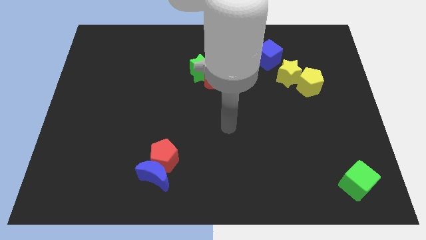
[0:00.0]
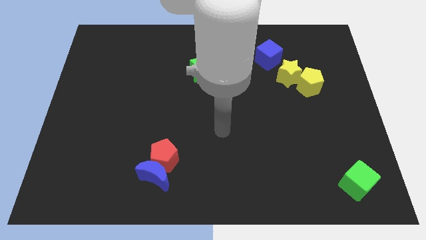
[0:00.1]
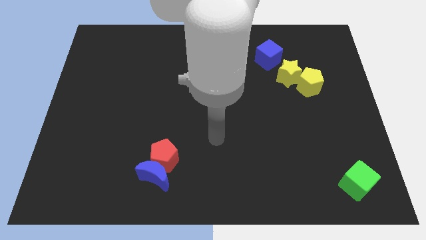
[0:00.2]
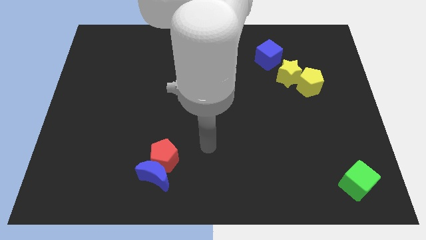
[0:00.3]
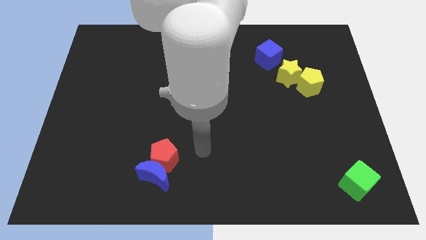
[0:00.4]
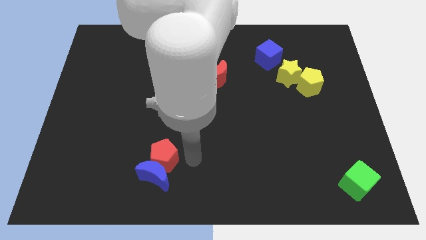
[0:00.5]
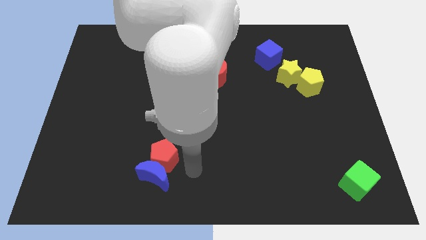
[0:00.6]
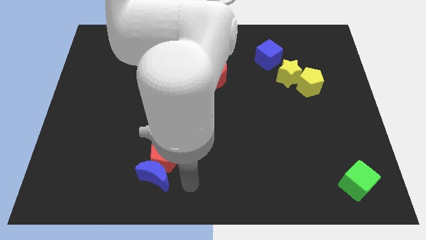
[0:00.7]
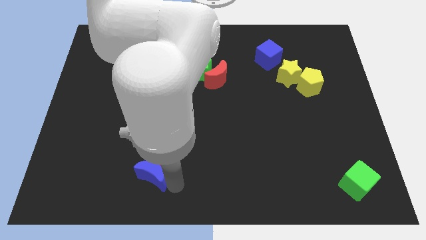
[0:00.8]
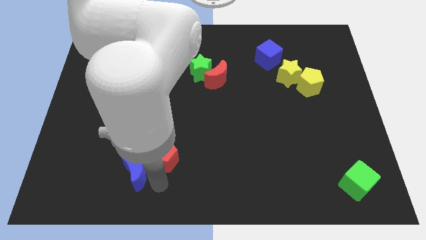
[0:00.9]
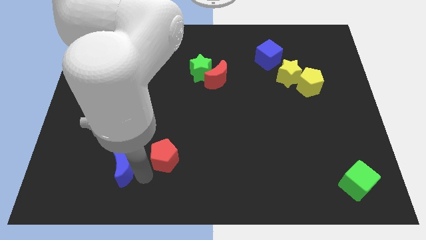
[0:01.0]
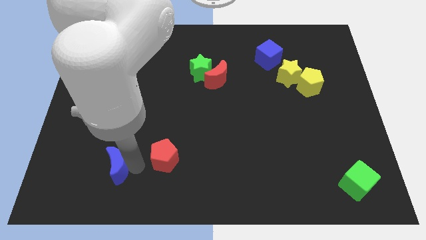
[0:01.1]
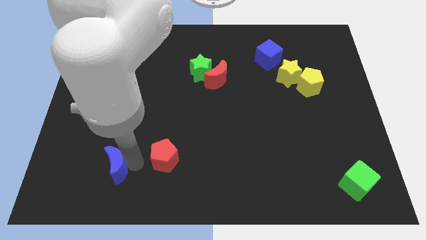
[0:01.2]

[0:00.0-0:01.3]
pull the red pentagon apart from the blue moon

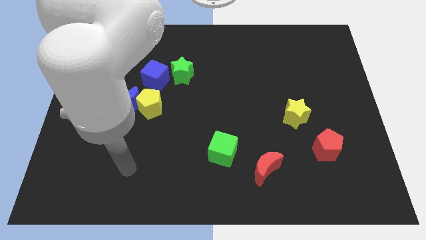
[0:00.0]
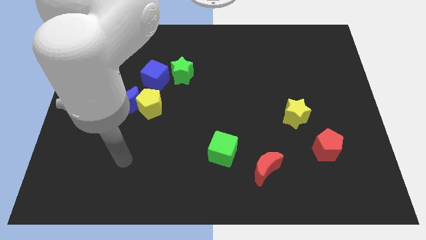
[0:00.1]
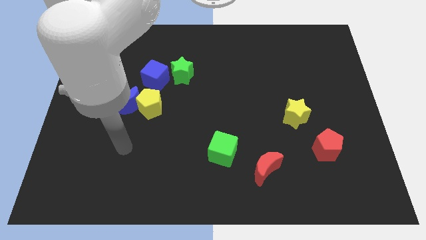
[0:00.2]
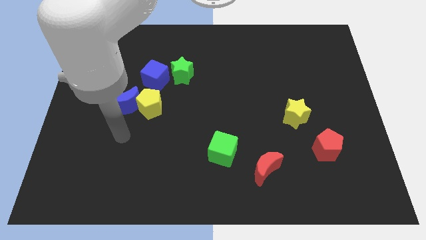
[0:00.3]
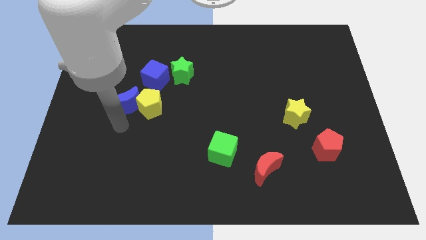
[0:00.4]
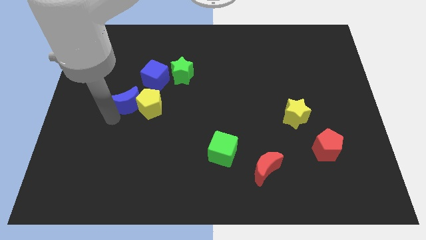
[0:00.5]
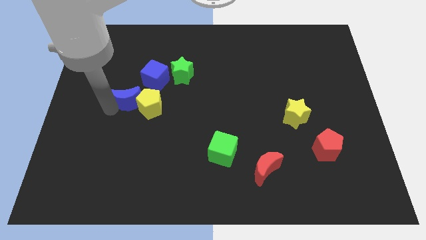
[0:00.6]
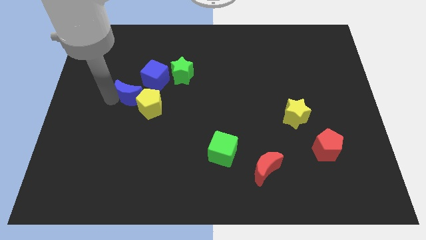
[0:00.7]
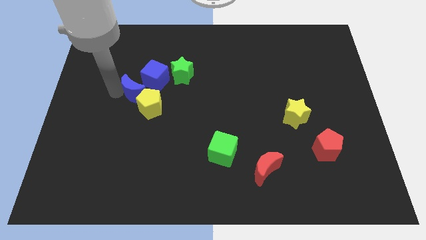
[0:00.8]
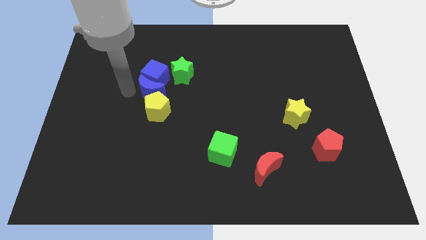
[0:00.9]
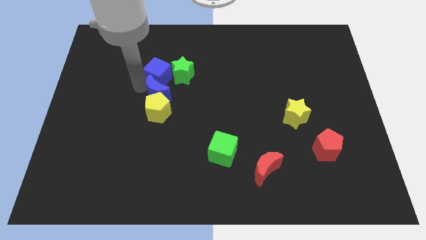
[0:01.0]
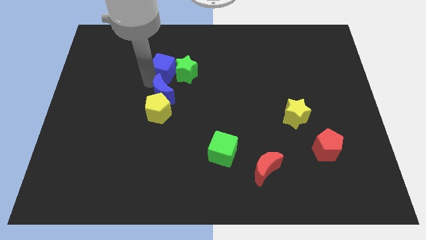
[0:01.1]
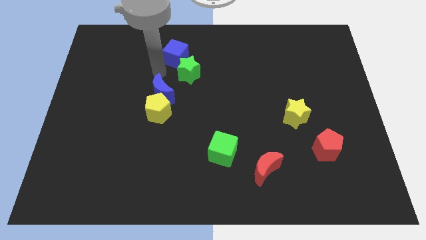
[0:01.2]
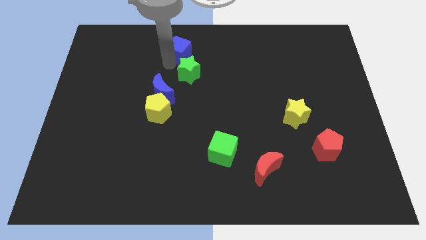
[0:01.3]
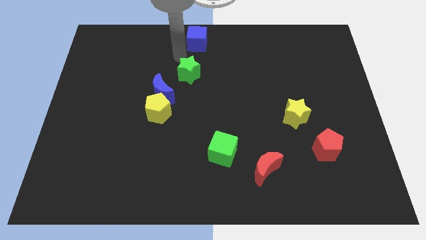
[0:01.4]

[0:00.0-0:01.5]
move the green star away from the blue cube

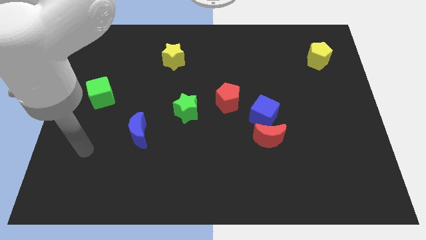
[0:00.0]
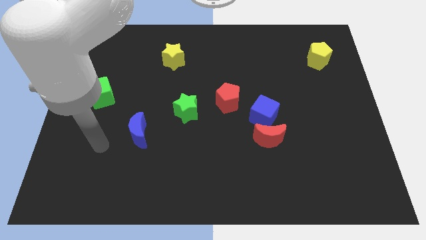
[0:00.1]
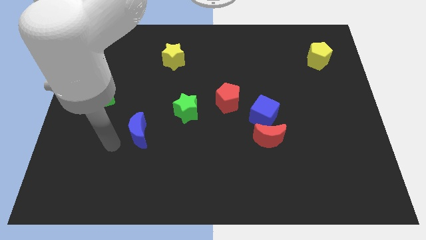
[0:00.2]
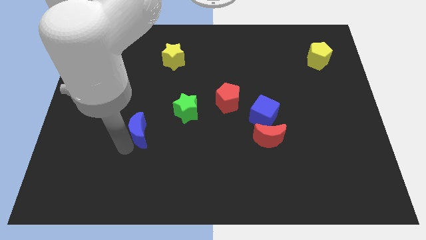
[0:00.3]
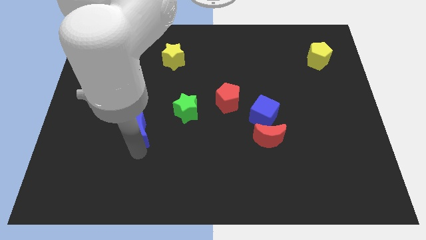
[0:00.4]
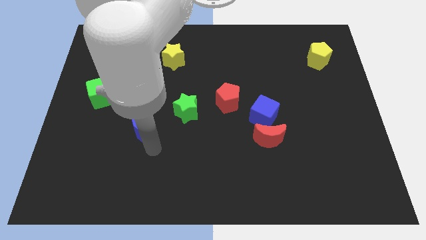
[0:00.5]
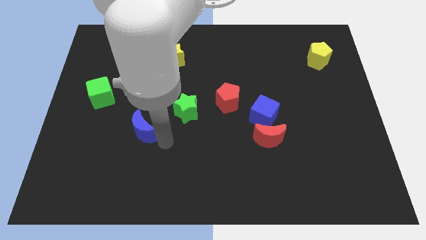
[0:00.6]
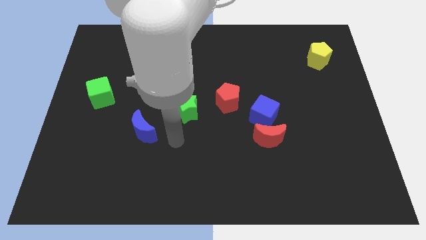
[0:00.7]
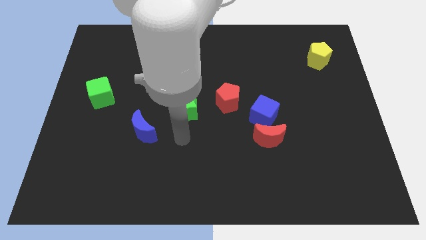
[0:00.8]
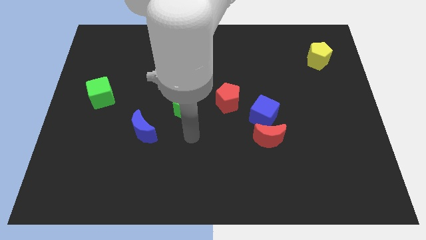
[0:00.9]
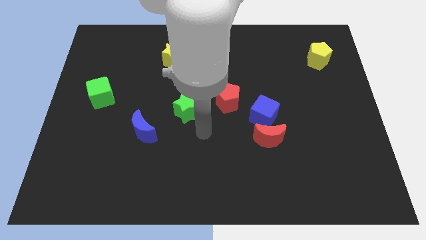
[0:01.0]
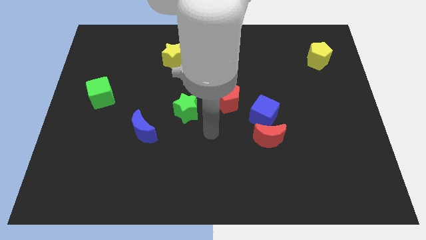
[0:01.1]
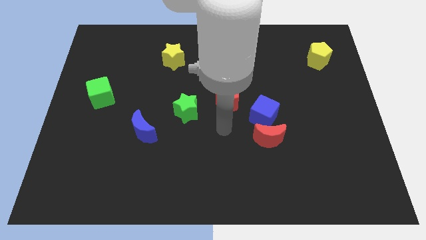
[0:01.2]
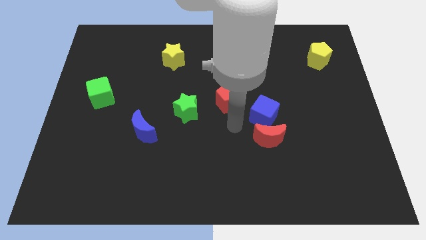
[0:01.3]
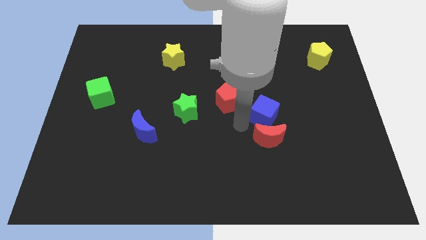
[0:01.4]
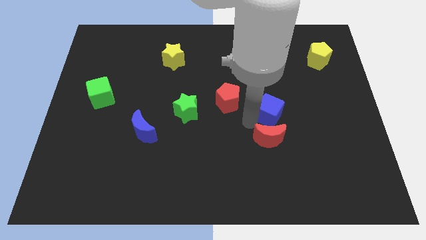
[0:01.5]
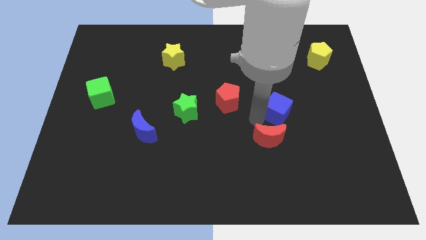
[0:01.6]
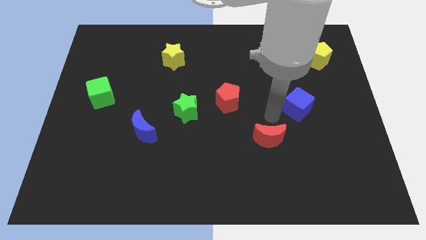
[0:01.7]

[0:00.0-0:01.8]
pull the red moon apart from the blue cube

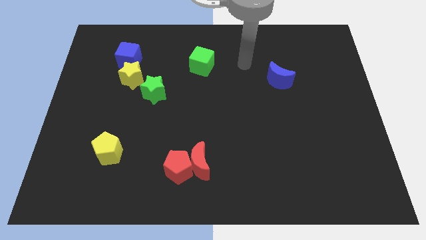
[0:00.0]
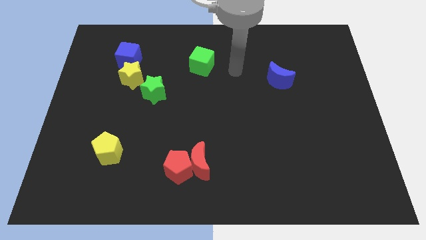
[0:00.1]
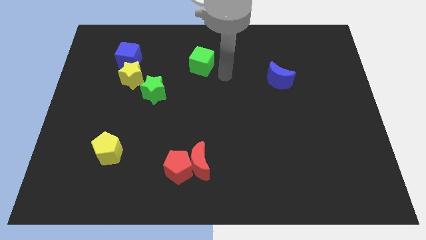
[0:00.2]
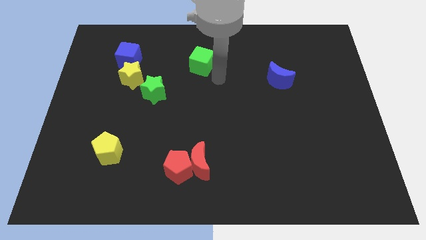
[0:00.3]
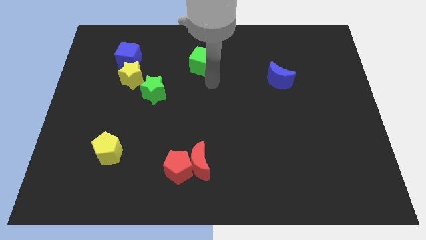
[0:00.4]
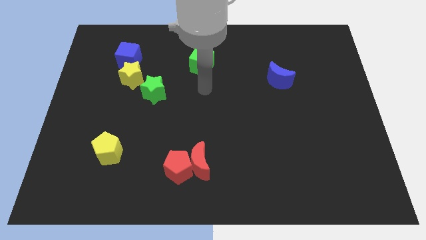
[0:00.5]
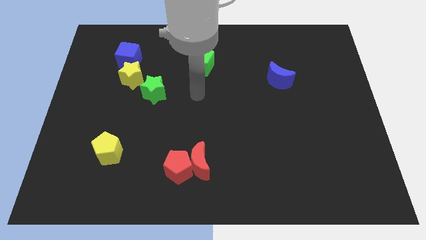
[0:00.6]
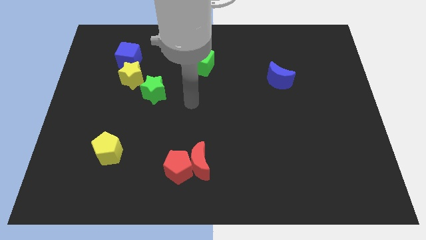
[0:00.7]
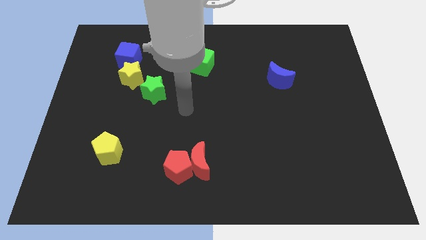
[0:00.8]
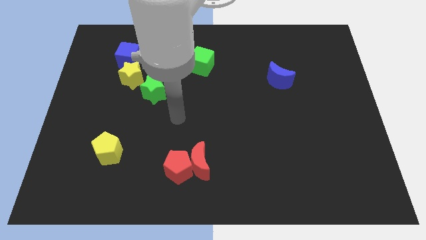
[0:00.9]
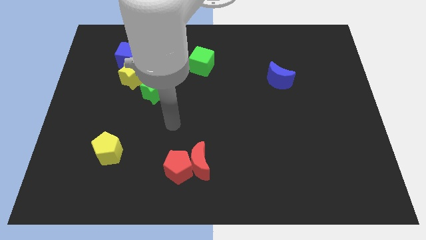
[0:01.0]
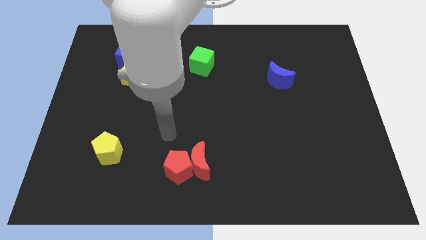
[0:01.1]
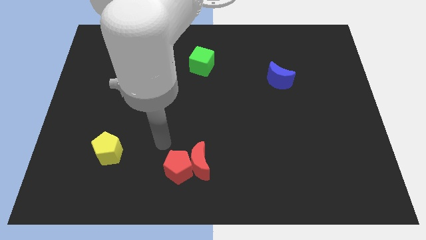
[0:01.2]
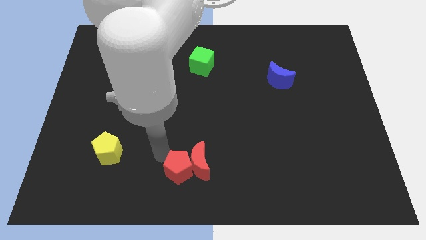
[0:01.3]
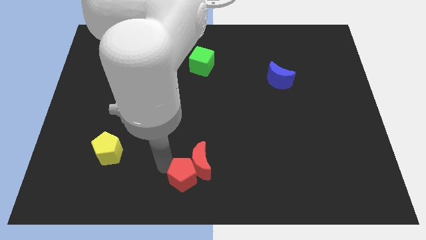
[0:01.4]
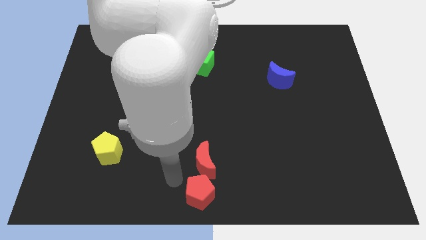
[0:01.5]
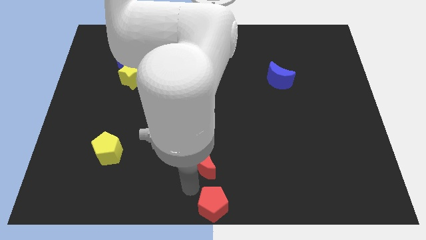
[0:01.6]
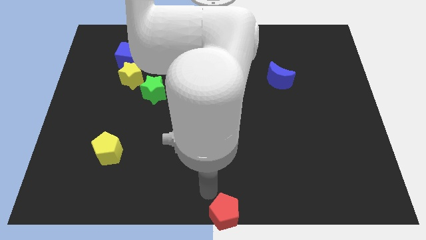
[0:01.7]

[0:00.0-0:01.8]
pull the red moon apart from the red pentagon

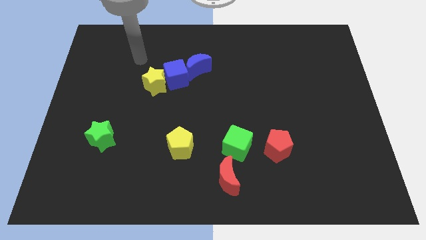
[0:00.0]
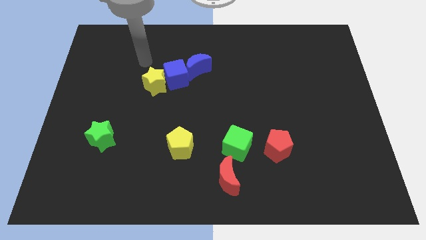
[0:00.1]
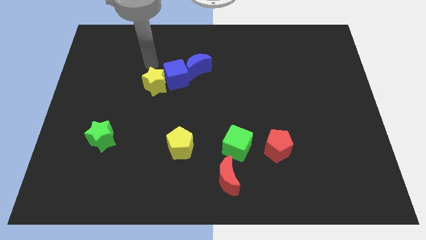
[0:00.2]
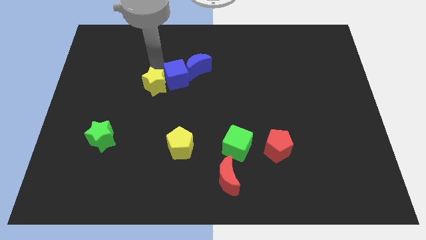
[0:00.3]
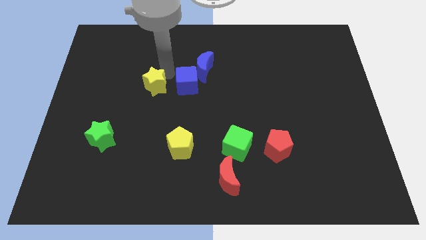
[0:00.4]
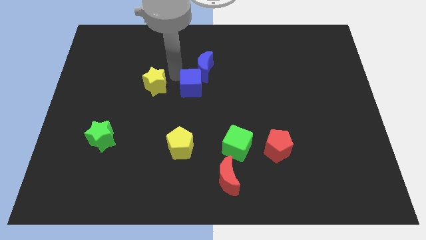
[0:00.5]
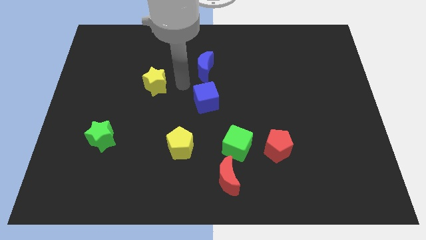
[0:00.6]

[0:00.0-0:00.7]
separate the yellow star from the blue cube

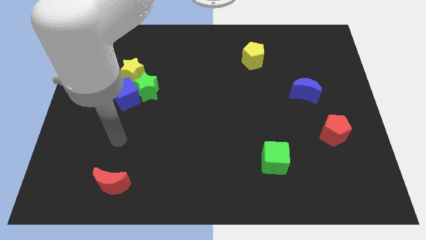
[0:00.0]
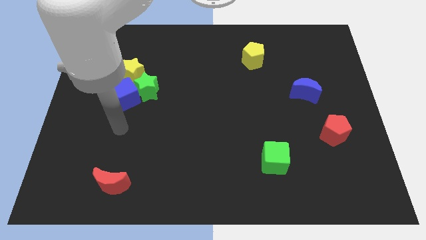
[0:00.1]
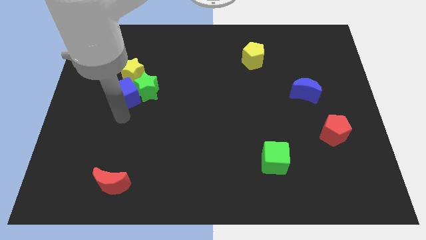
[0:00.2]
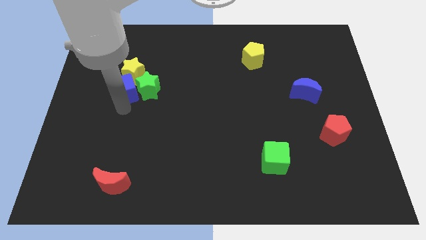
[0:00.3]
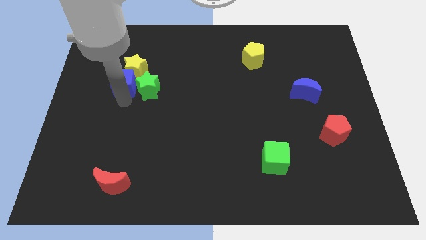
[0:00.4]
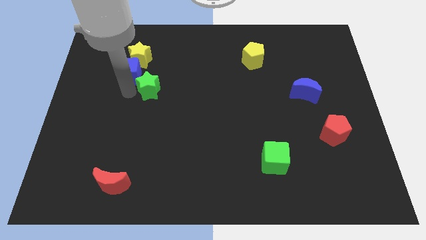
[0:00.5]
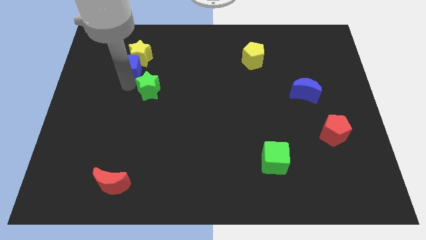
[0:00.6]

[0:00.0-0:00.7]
move the green star away from the blue cube and yellow star

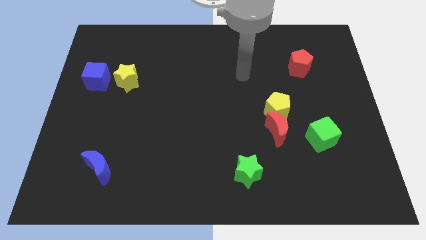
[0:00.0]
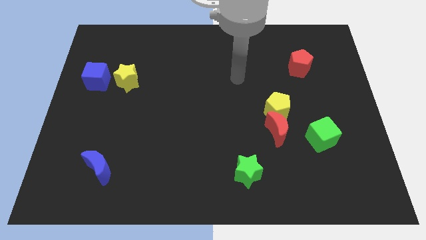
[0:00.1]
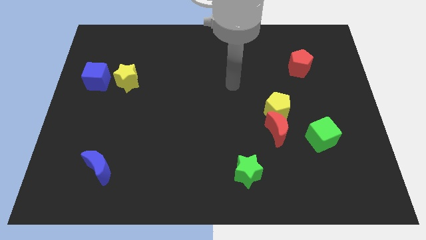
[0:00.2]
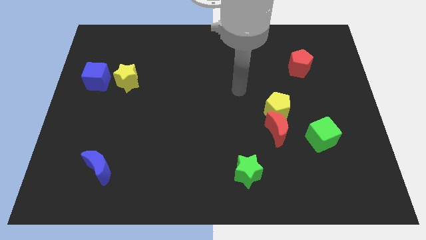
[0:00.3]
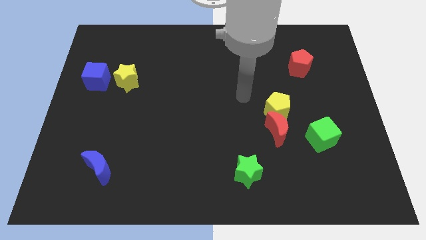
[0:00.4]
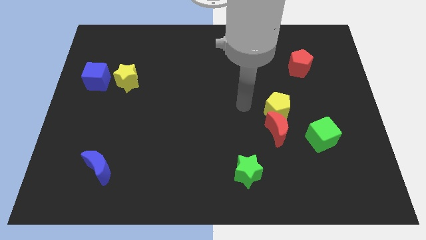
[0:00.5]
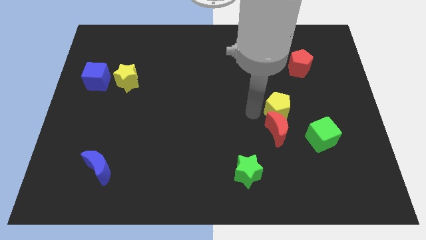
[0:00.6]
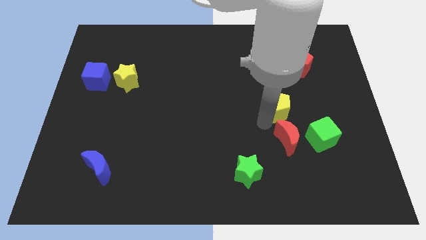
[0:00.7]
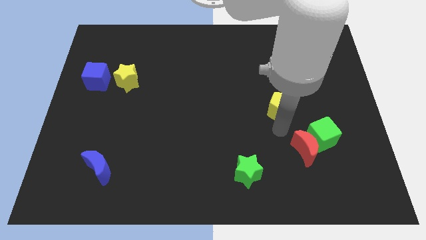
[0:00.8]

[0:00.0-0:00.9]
move the yellow pentagon away from the red moon

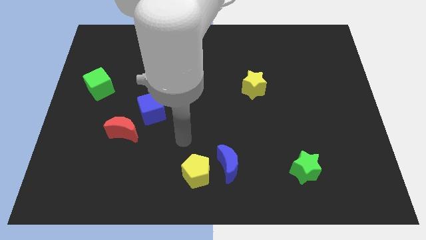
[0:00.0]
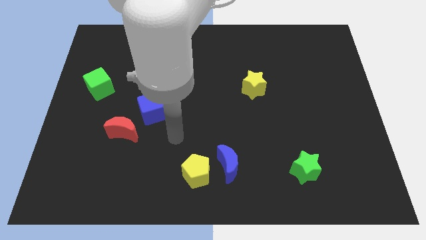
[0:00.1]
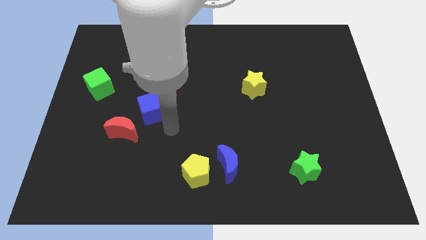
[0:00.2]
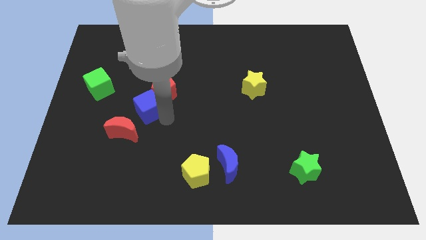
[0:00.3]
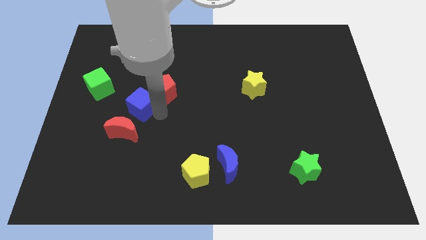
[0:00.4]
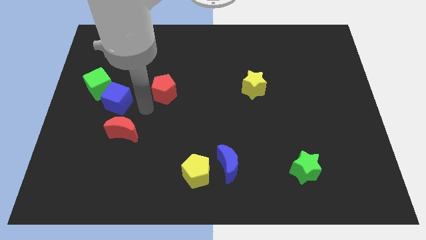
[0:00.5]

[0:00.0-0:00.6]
separate the red pentagon from the blue cube
